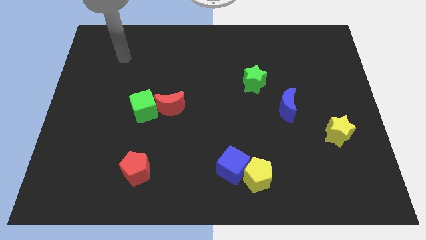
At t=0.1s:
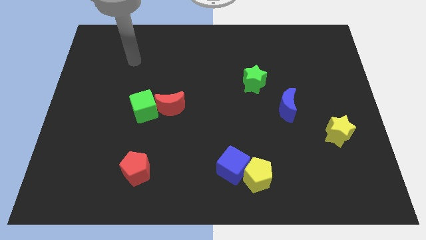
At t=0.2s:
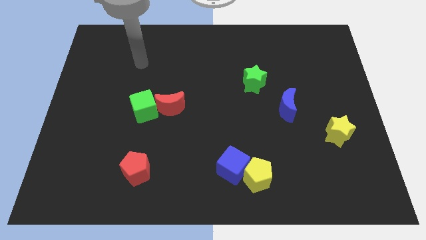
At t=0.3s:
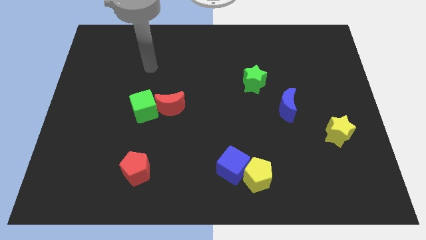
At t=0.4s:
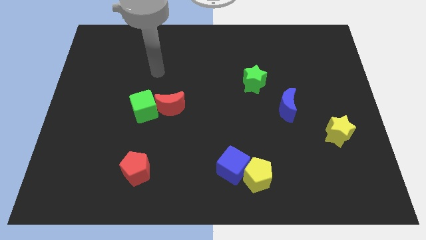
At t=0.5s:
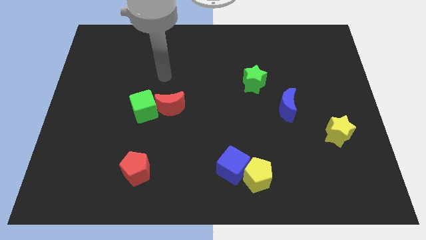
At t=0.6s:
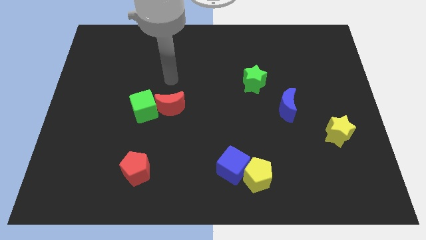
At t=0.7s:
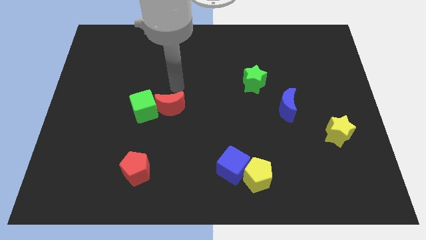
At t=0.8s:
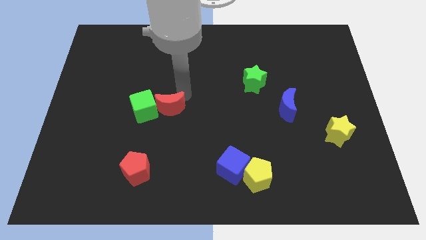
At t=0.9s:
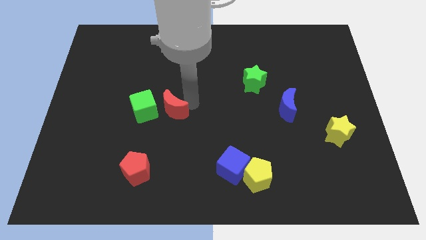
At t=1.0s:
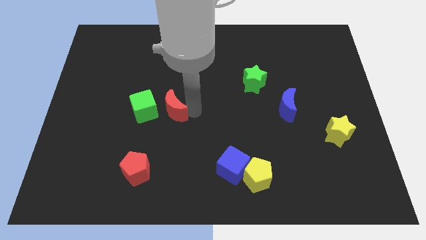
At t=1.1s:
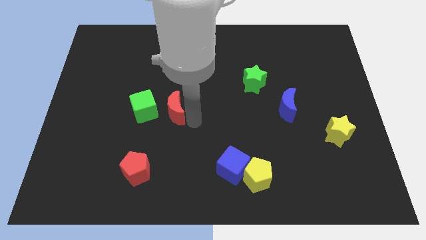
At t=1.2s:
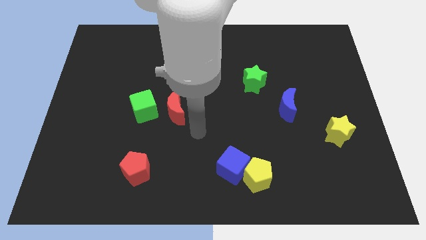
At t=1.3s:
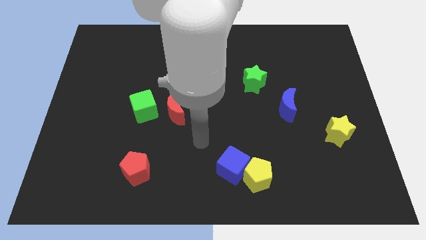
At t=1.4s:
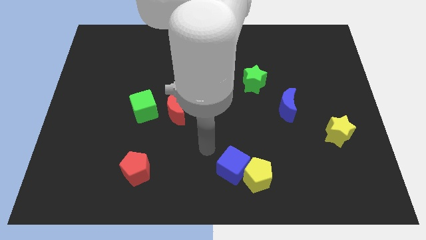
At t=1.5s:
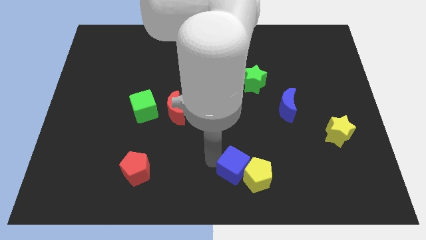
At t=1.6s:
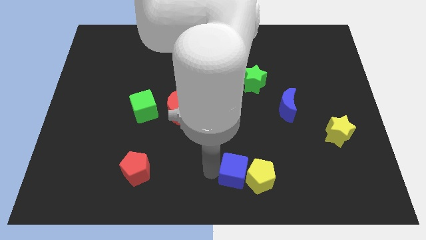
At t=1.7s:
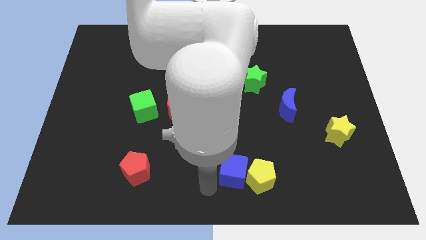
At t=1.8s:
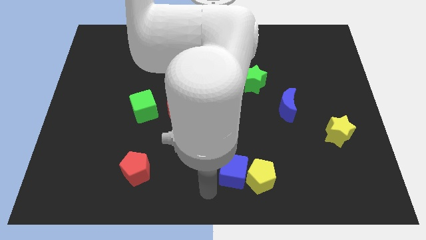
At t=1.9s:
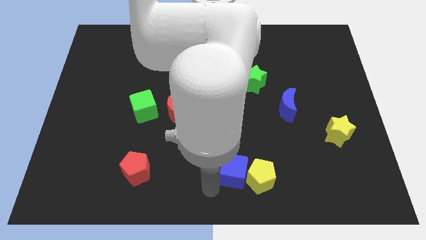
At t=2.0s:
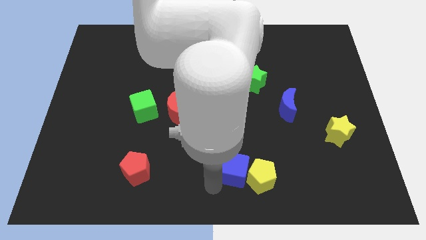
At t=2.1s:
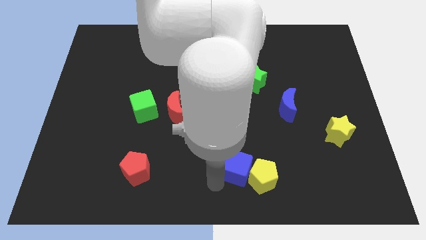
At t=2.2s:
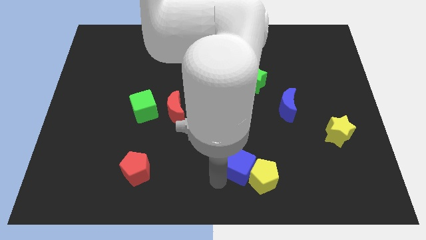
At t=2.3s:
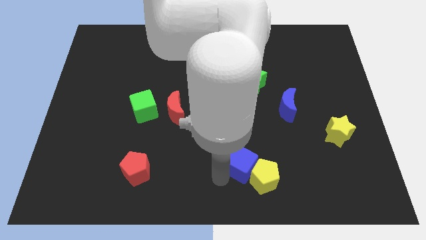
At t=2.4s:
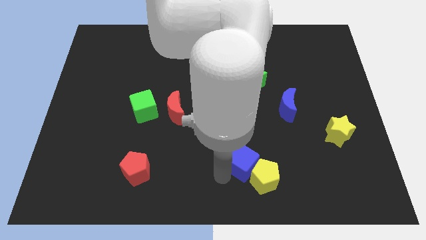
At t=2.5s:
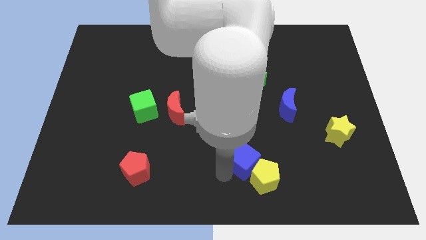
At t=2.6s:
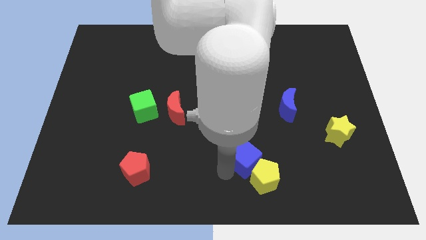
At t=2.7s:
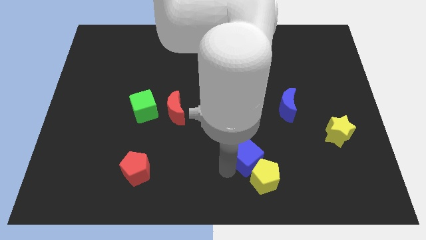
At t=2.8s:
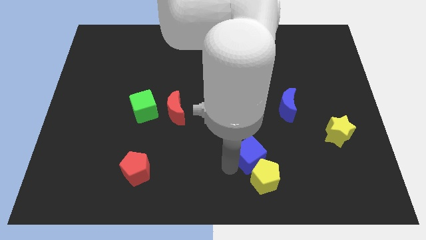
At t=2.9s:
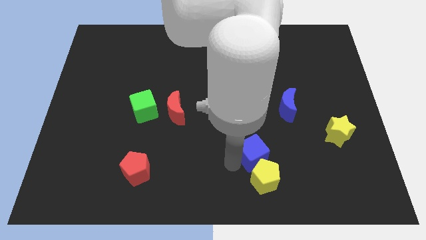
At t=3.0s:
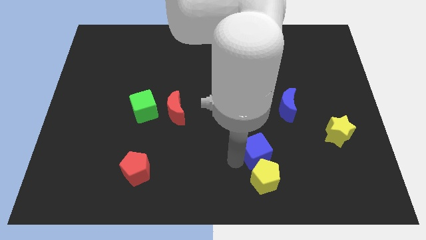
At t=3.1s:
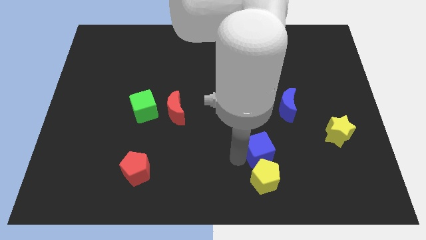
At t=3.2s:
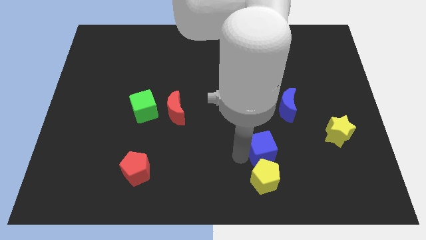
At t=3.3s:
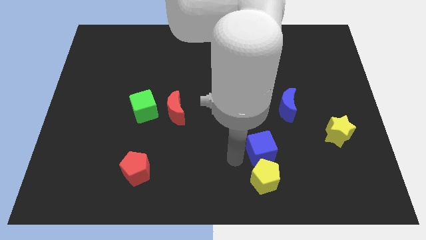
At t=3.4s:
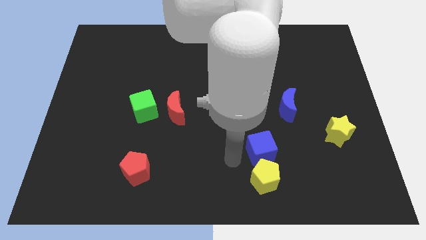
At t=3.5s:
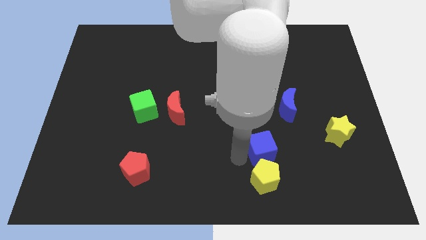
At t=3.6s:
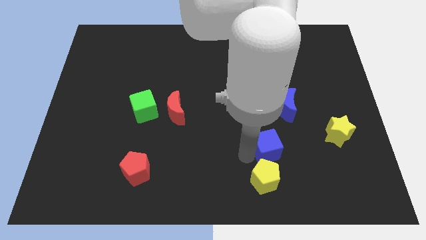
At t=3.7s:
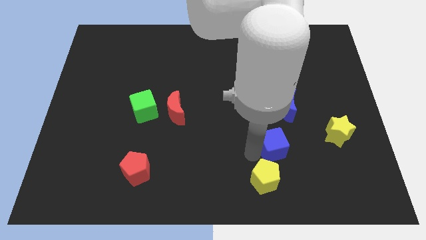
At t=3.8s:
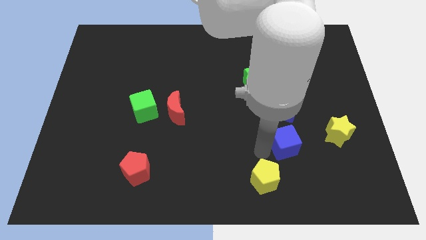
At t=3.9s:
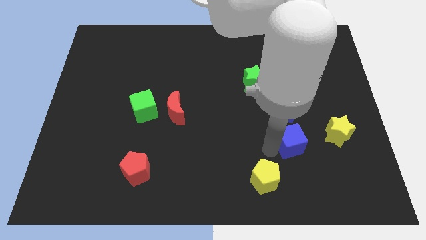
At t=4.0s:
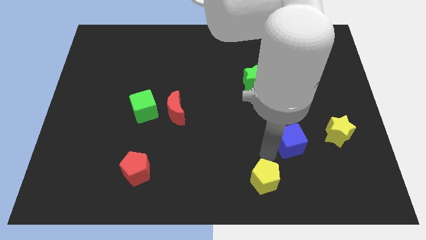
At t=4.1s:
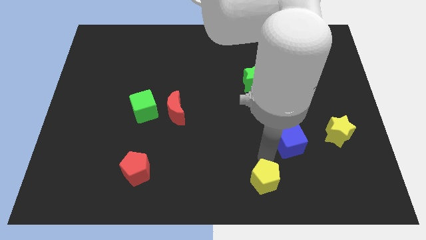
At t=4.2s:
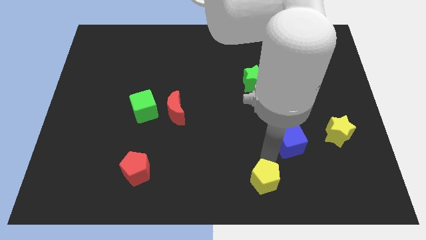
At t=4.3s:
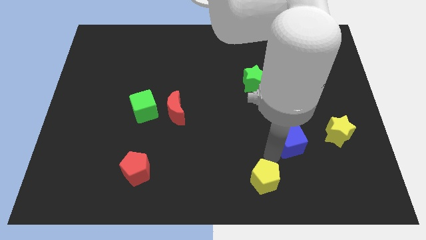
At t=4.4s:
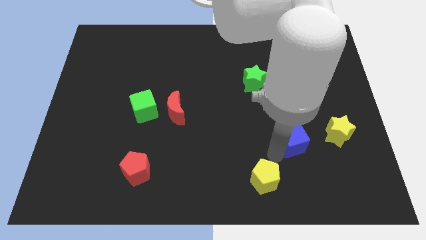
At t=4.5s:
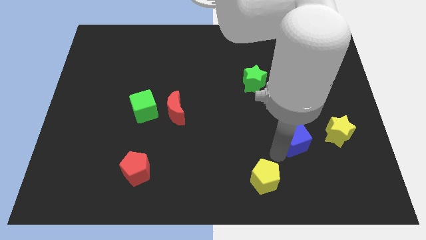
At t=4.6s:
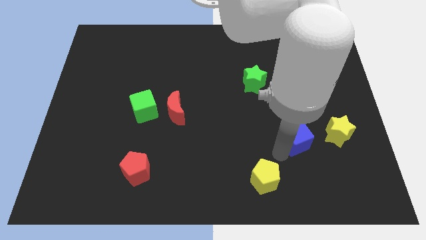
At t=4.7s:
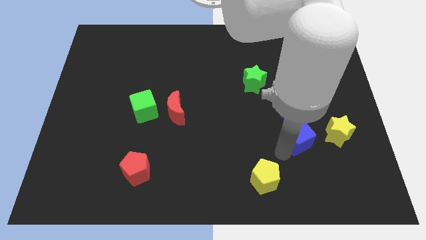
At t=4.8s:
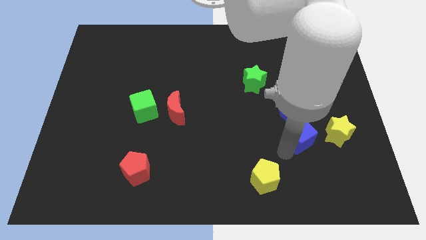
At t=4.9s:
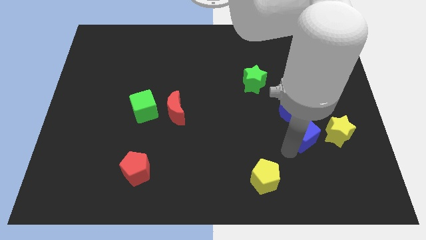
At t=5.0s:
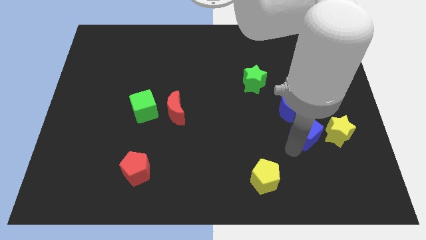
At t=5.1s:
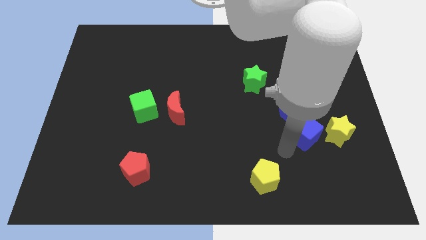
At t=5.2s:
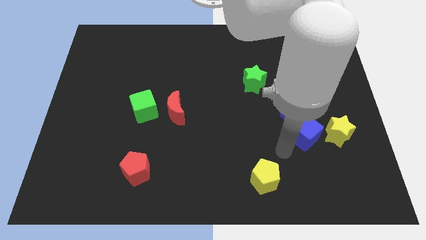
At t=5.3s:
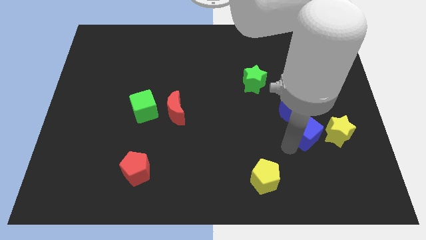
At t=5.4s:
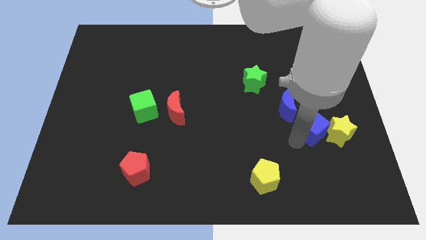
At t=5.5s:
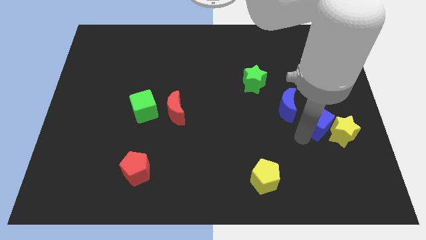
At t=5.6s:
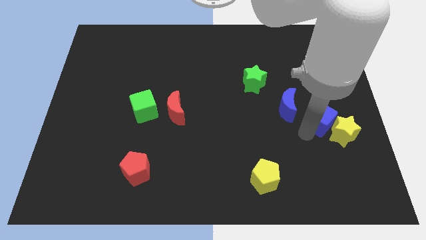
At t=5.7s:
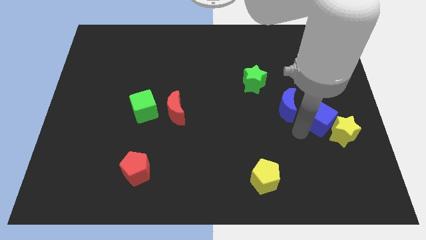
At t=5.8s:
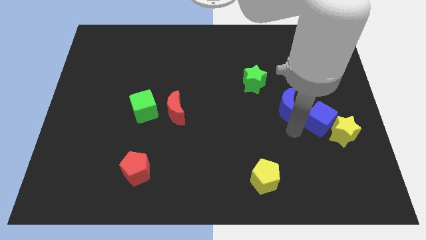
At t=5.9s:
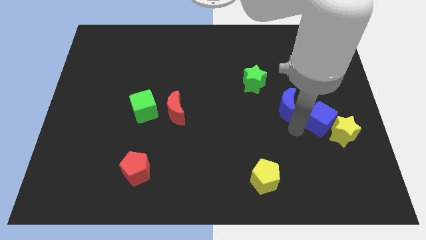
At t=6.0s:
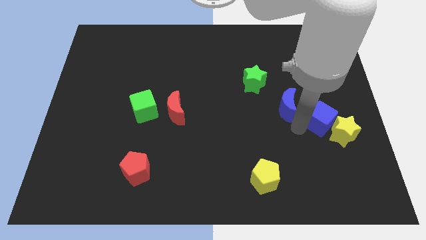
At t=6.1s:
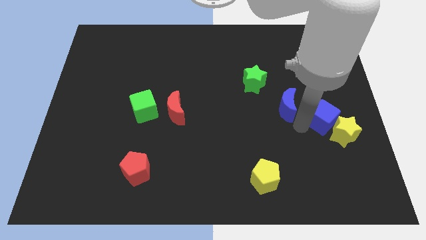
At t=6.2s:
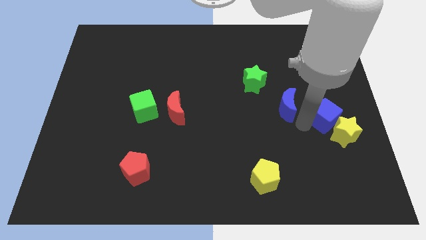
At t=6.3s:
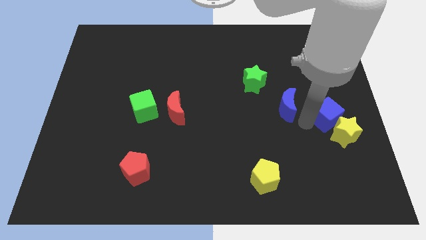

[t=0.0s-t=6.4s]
put the blue cube to the right side of the board
